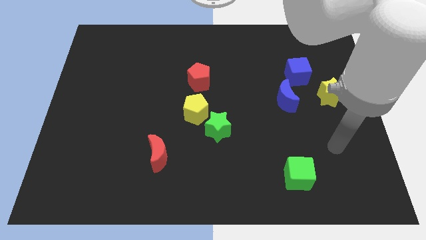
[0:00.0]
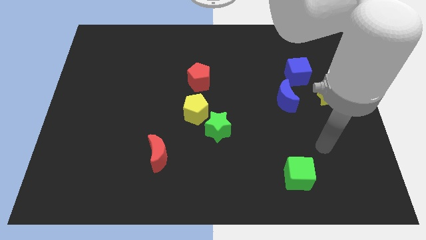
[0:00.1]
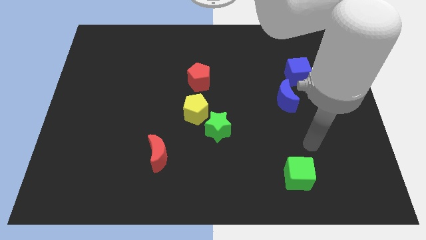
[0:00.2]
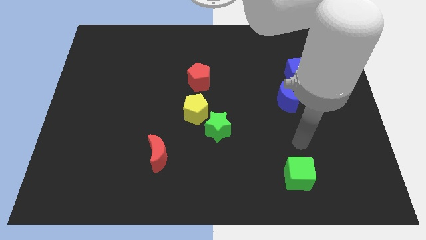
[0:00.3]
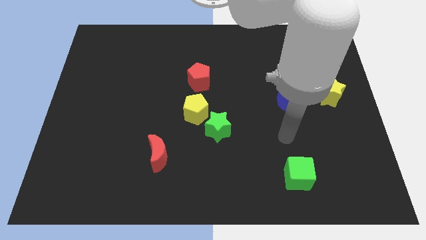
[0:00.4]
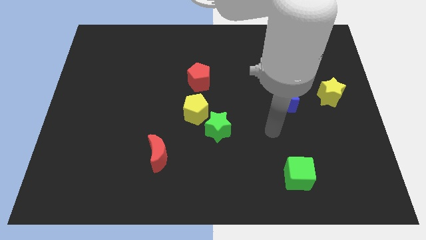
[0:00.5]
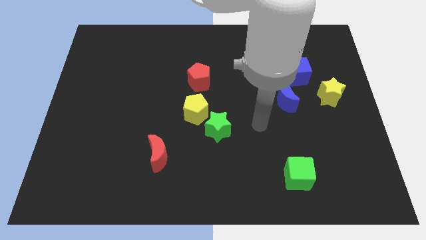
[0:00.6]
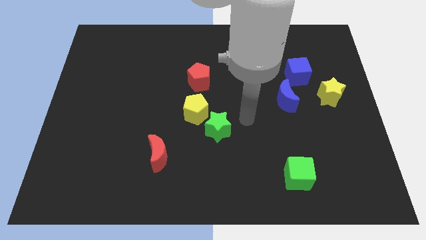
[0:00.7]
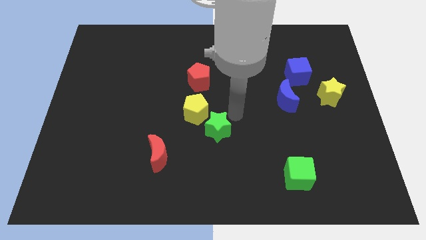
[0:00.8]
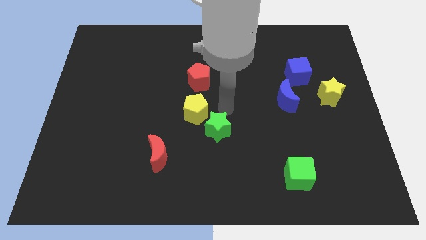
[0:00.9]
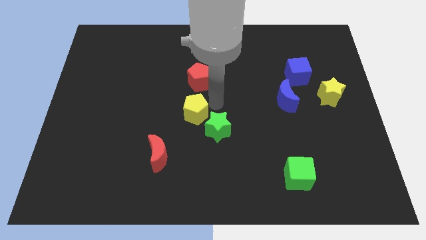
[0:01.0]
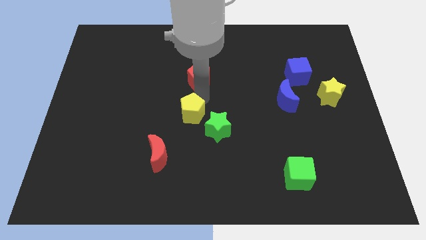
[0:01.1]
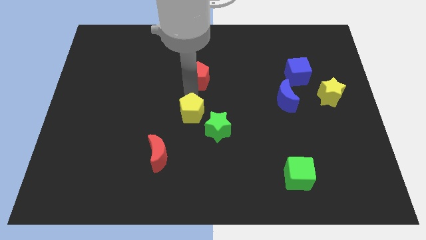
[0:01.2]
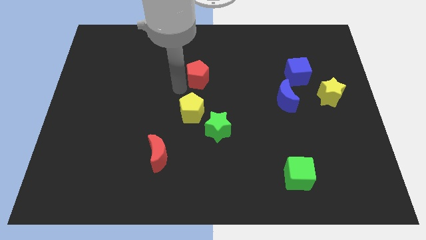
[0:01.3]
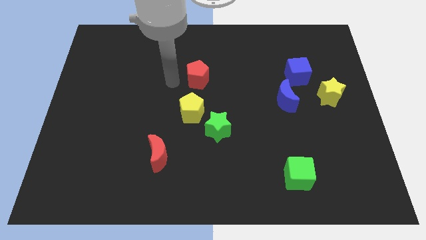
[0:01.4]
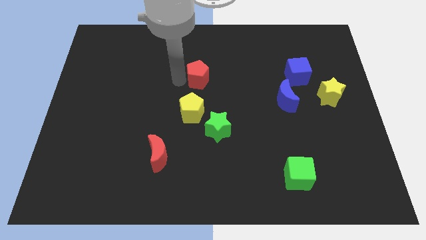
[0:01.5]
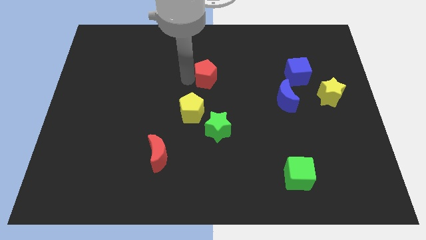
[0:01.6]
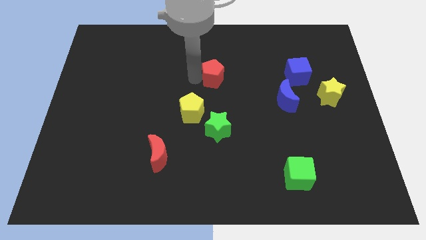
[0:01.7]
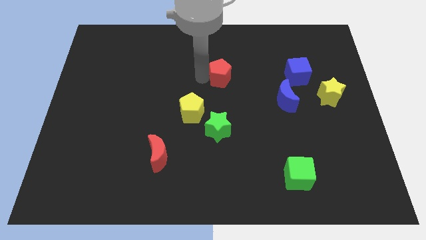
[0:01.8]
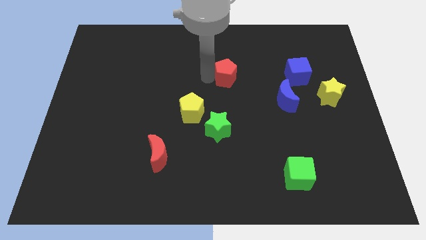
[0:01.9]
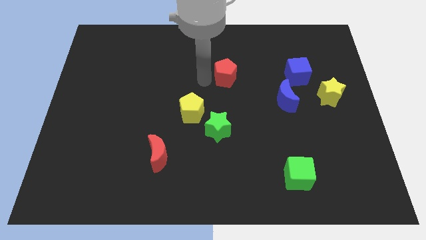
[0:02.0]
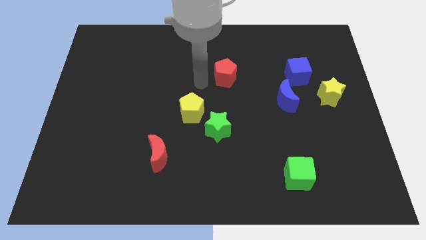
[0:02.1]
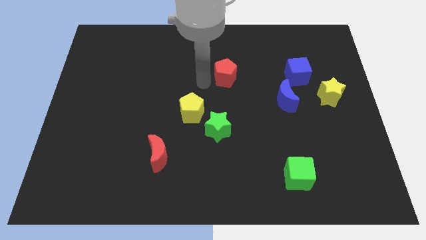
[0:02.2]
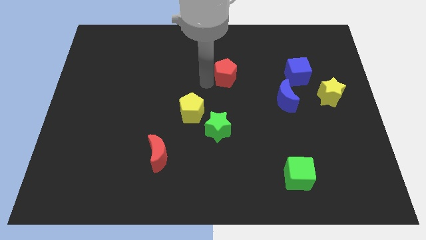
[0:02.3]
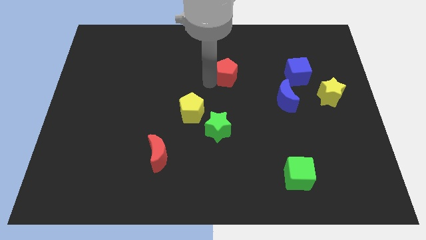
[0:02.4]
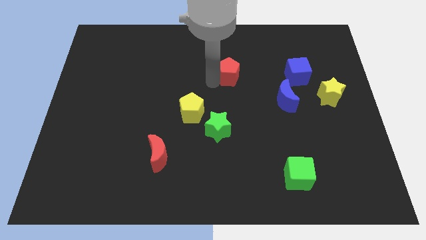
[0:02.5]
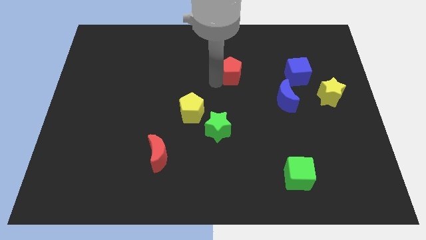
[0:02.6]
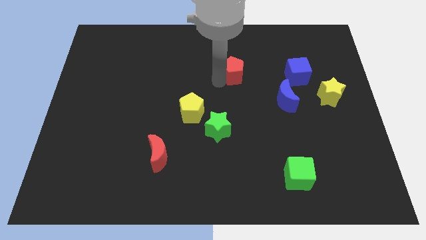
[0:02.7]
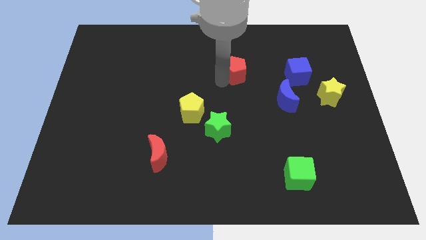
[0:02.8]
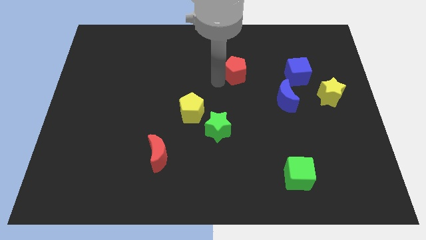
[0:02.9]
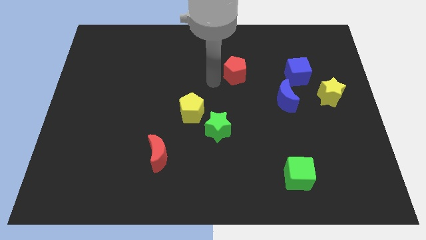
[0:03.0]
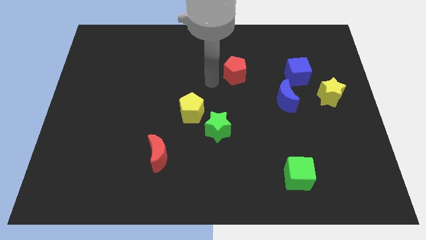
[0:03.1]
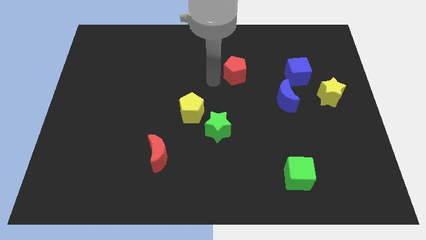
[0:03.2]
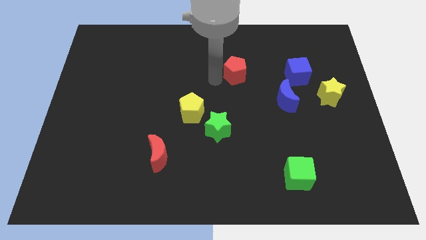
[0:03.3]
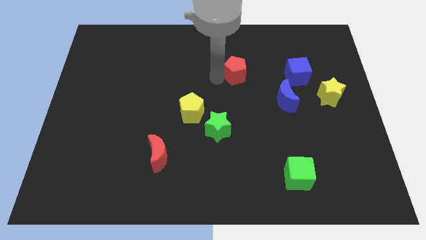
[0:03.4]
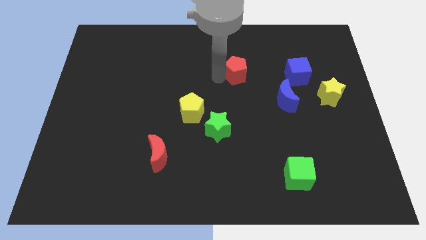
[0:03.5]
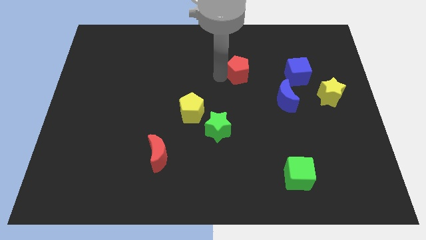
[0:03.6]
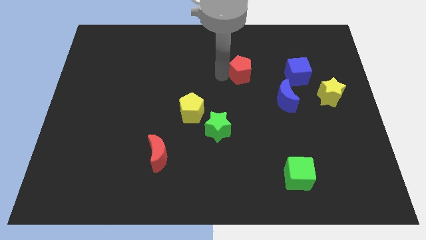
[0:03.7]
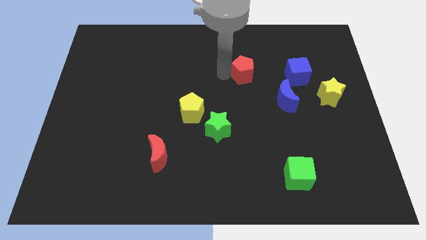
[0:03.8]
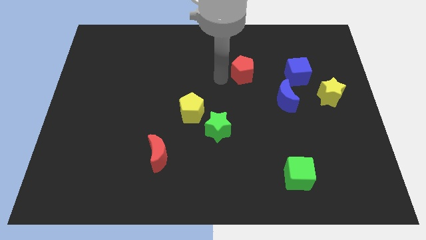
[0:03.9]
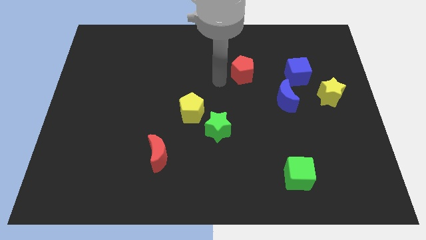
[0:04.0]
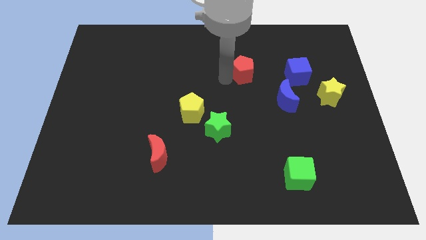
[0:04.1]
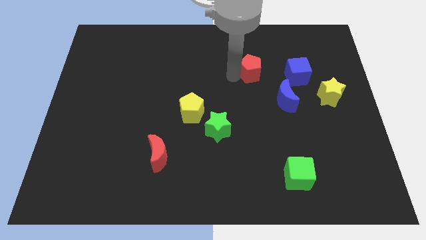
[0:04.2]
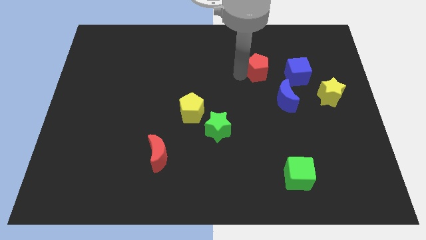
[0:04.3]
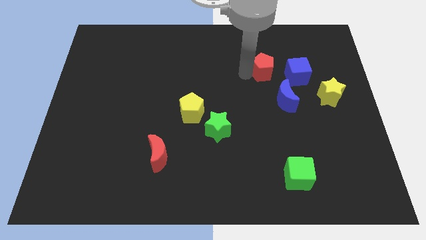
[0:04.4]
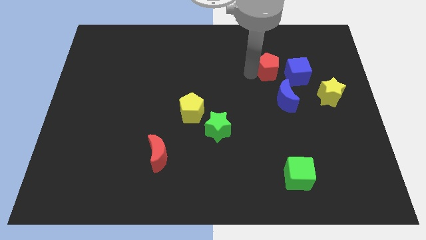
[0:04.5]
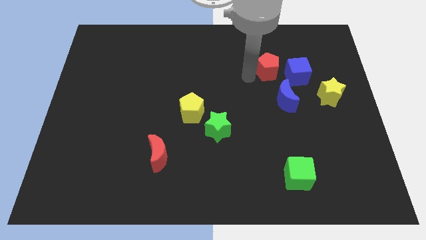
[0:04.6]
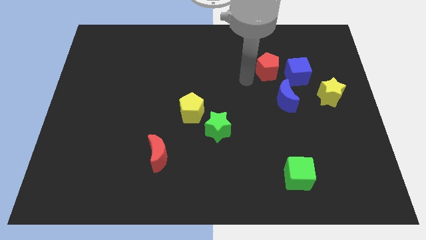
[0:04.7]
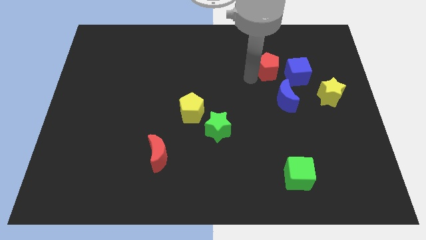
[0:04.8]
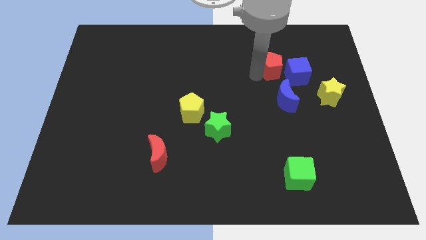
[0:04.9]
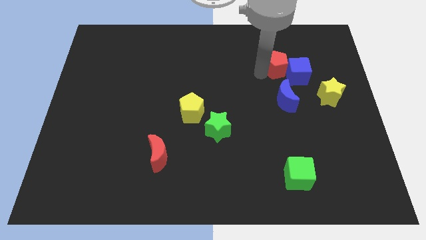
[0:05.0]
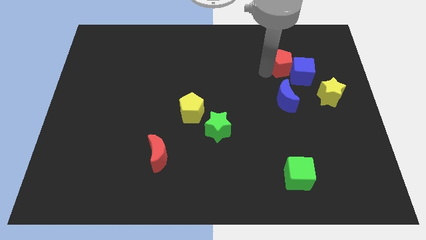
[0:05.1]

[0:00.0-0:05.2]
slide the red pentagon to the right

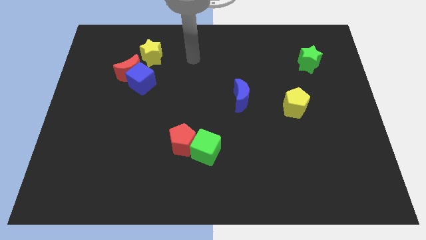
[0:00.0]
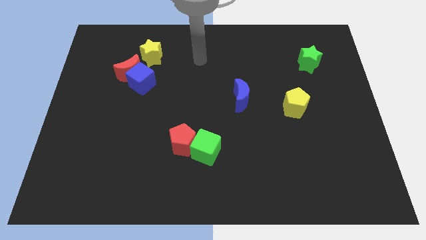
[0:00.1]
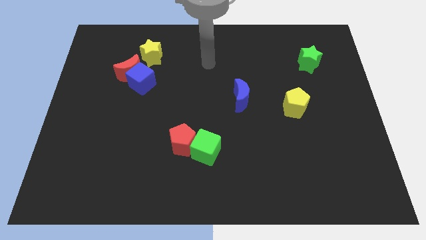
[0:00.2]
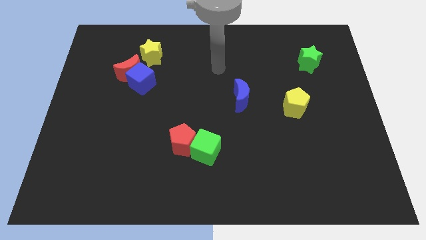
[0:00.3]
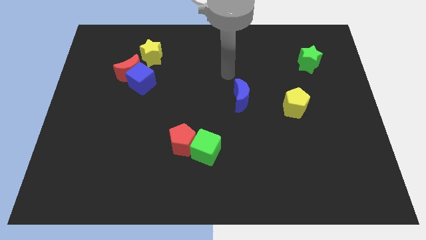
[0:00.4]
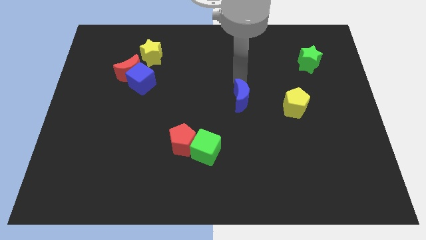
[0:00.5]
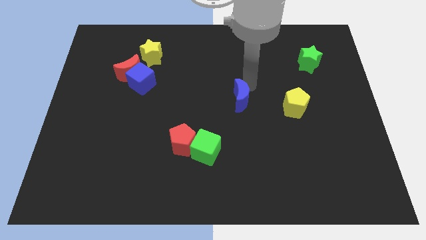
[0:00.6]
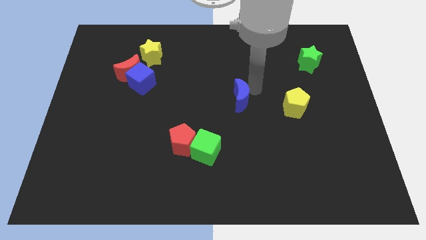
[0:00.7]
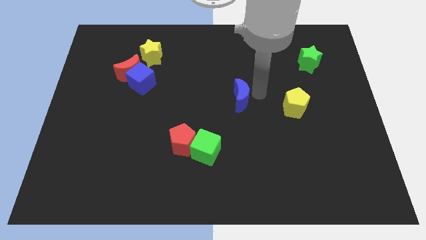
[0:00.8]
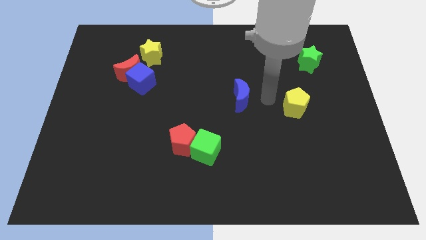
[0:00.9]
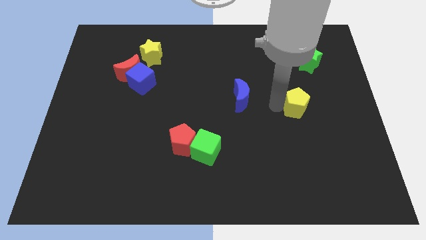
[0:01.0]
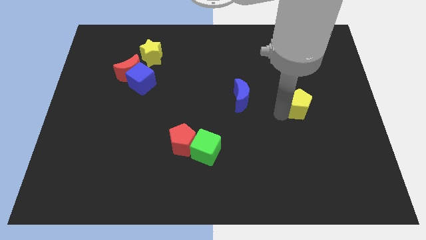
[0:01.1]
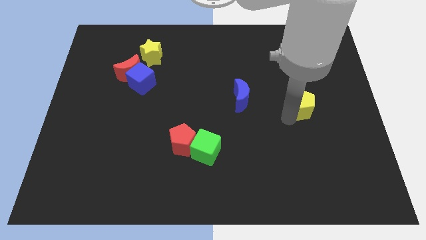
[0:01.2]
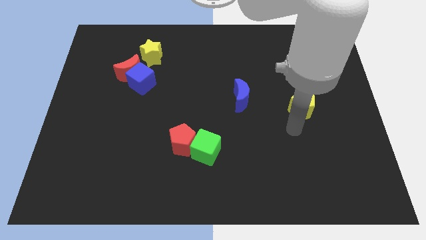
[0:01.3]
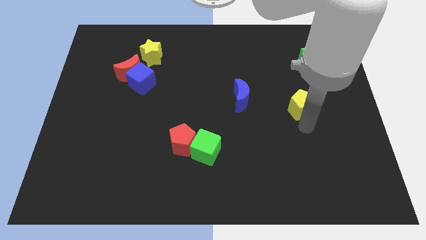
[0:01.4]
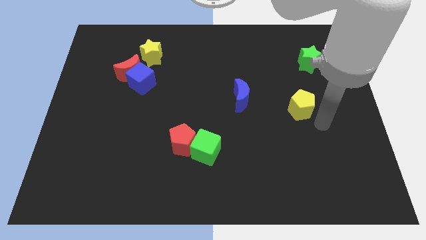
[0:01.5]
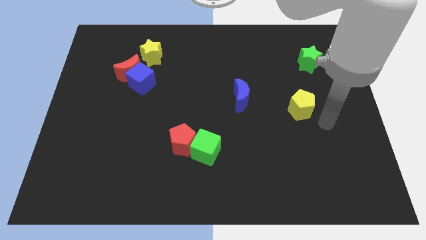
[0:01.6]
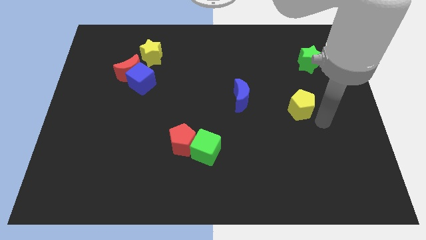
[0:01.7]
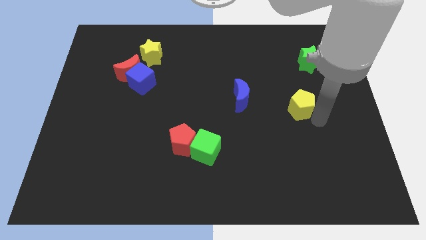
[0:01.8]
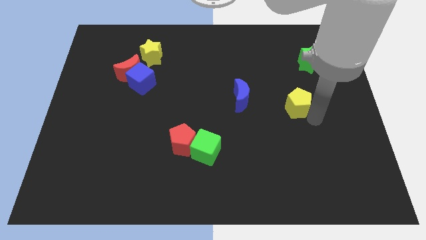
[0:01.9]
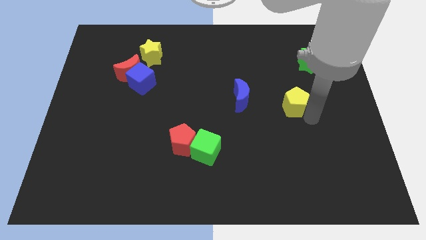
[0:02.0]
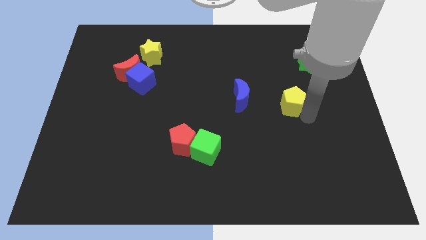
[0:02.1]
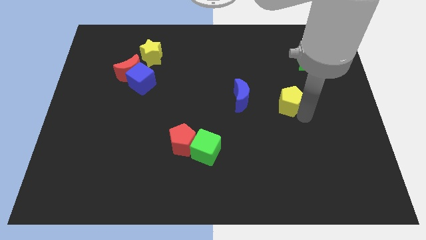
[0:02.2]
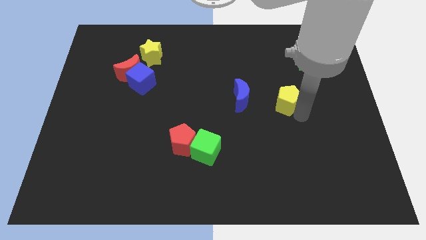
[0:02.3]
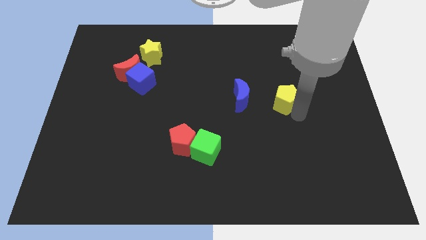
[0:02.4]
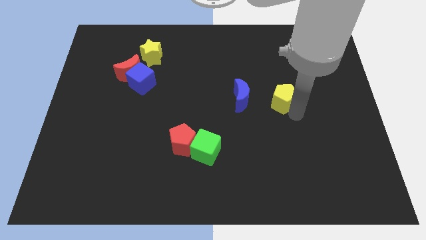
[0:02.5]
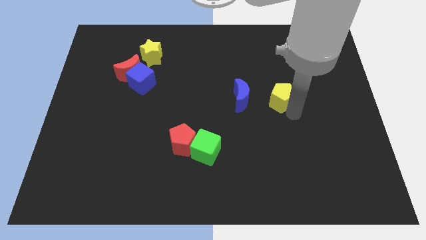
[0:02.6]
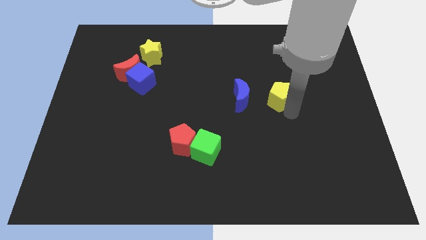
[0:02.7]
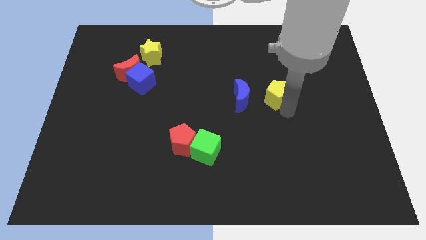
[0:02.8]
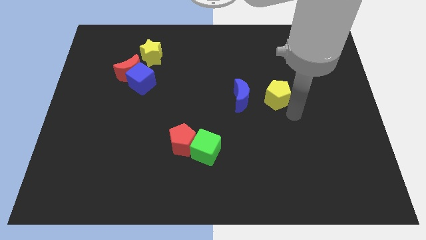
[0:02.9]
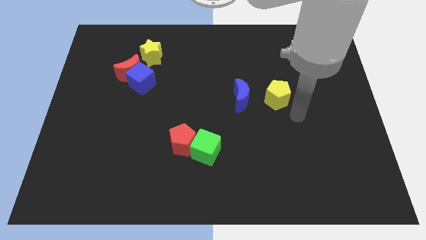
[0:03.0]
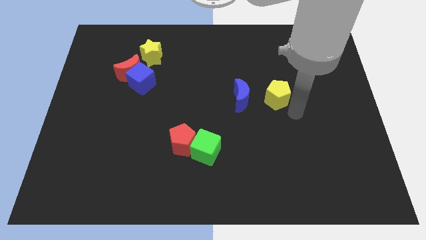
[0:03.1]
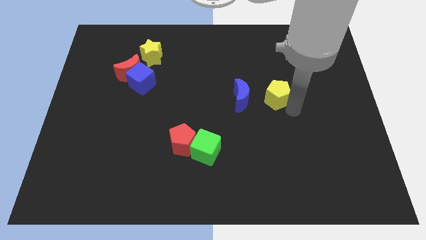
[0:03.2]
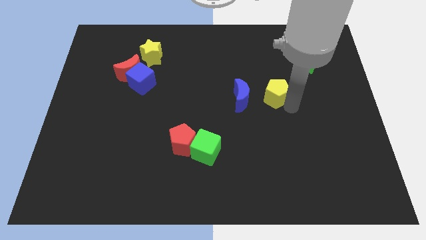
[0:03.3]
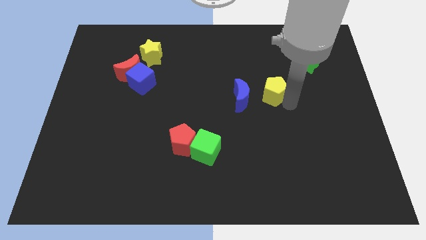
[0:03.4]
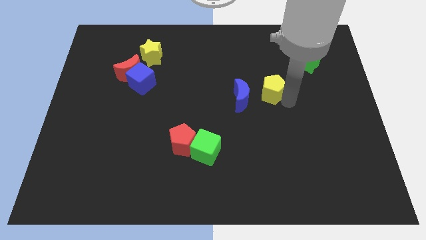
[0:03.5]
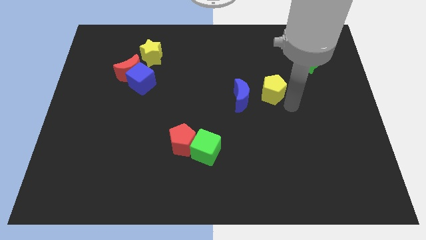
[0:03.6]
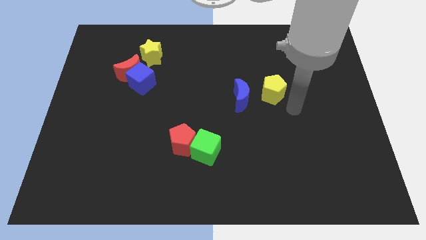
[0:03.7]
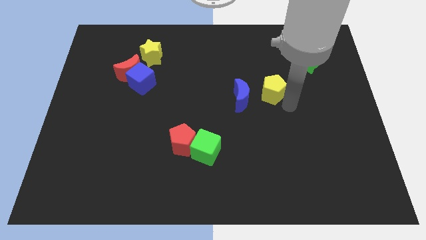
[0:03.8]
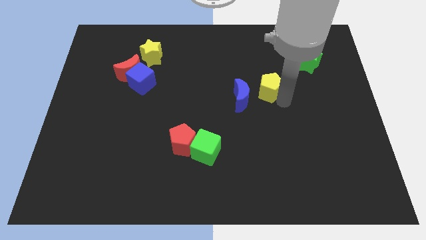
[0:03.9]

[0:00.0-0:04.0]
move the yellow pentagon up and left diagonally a little bit
